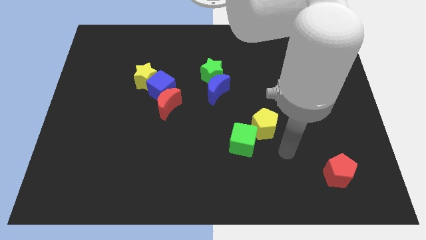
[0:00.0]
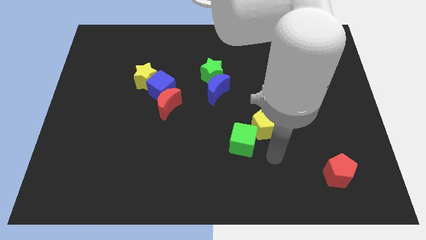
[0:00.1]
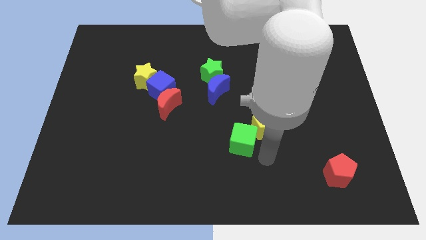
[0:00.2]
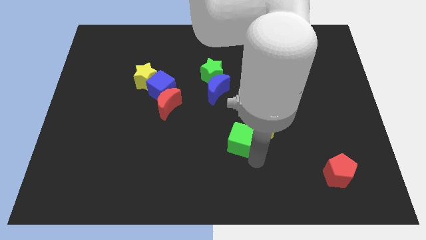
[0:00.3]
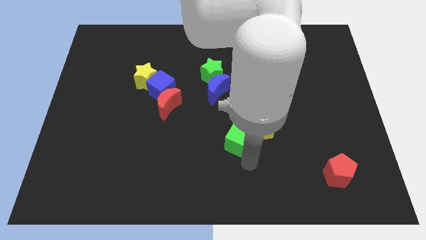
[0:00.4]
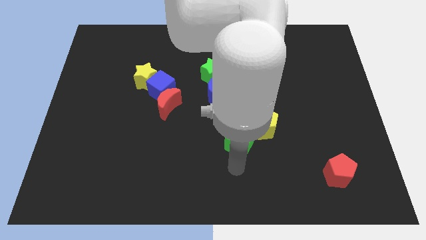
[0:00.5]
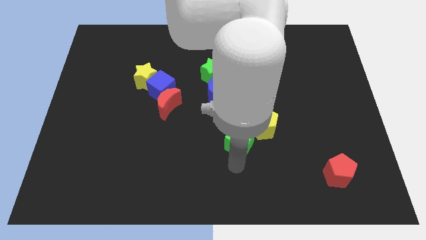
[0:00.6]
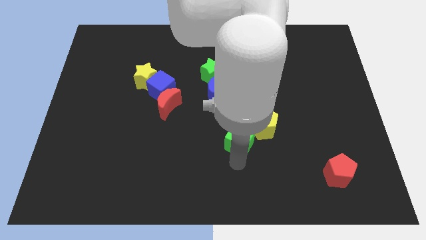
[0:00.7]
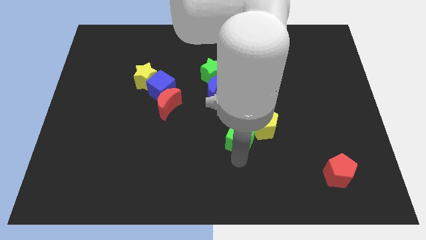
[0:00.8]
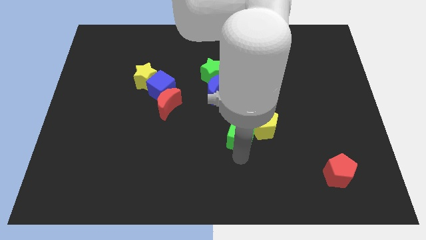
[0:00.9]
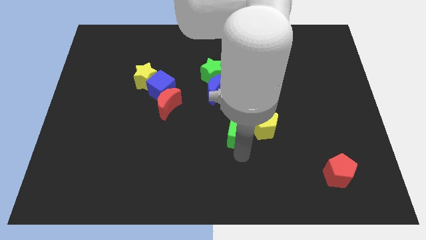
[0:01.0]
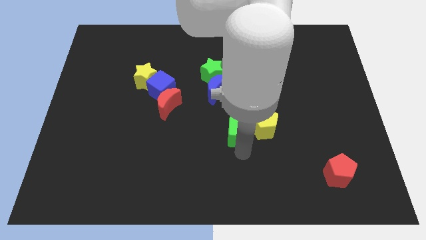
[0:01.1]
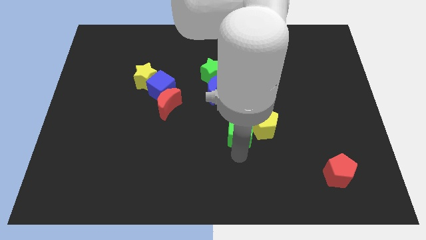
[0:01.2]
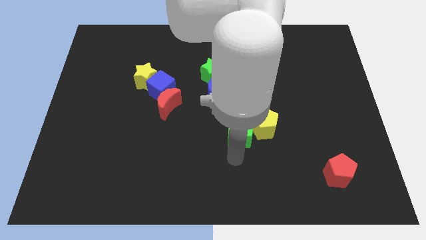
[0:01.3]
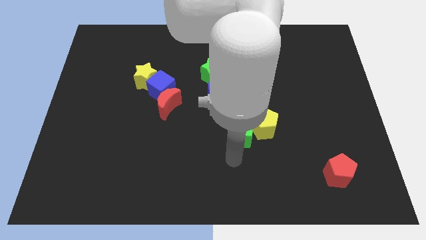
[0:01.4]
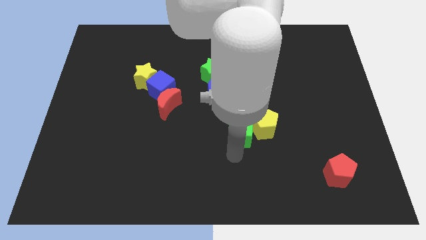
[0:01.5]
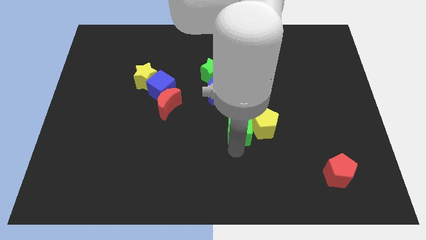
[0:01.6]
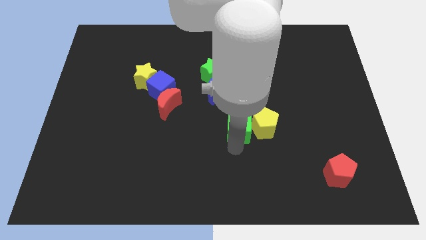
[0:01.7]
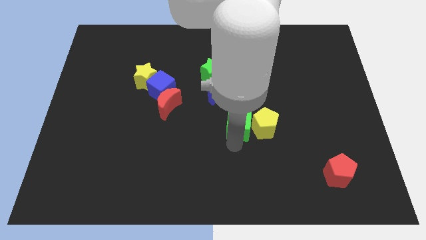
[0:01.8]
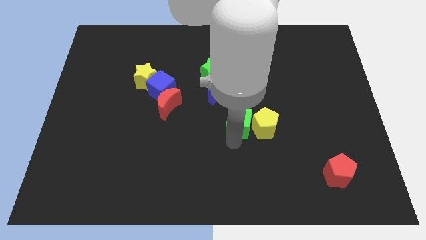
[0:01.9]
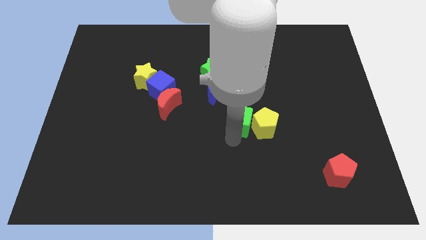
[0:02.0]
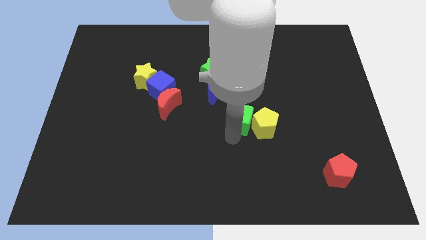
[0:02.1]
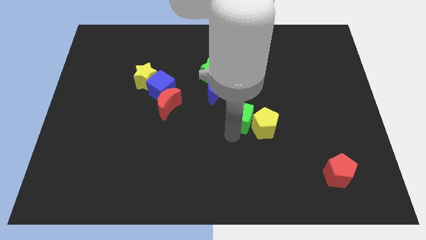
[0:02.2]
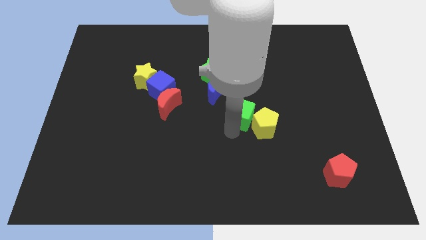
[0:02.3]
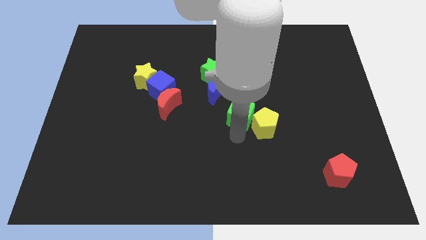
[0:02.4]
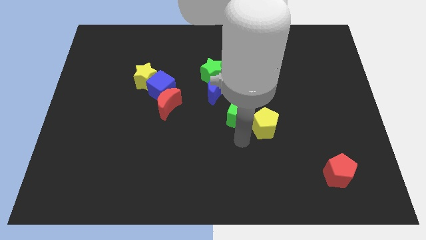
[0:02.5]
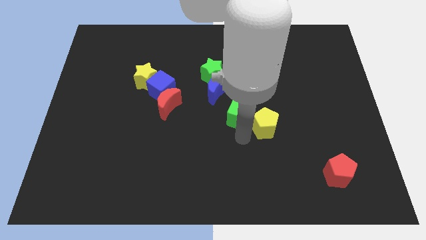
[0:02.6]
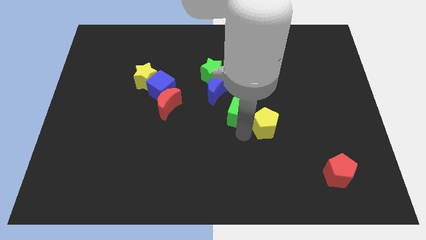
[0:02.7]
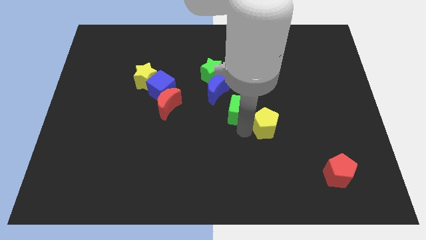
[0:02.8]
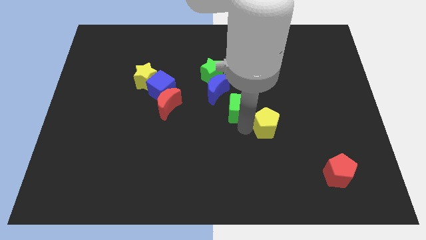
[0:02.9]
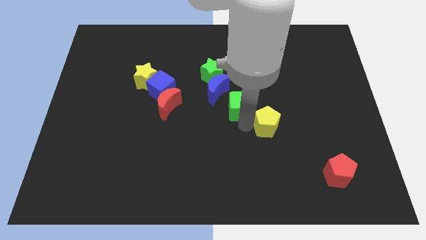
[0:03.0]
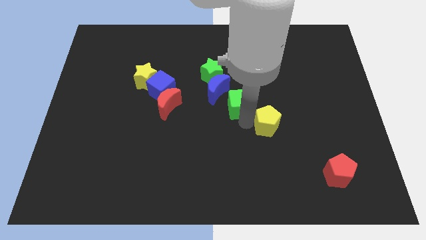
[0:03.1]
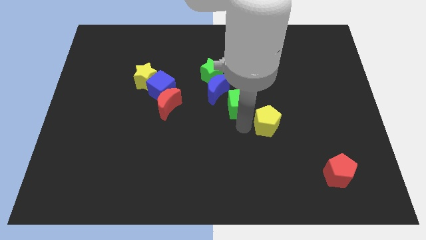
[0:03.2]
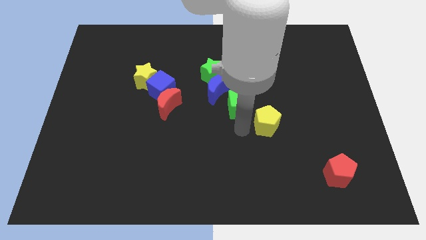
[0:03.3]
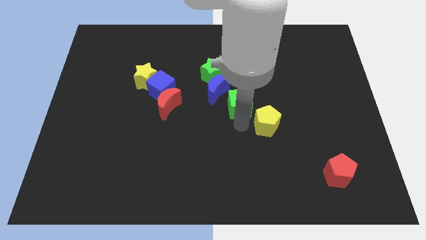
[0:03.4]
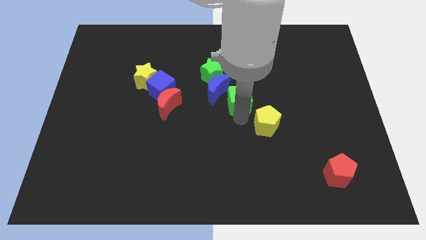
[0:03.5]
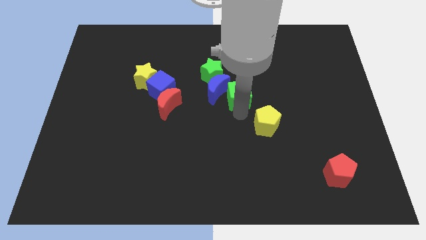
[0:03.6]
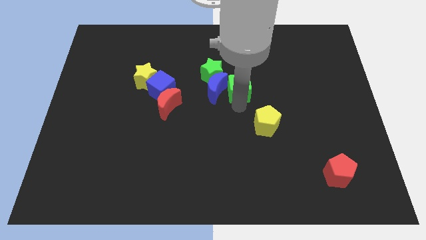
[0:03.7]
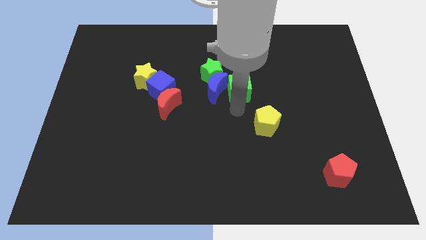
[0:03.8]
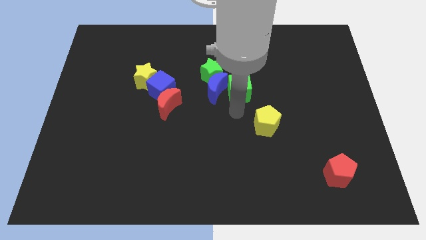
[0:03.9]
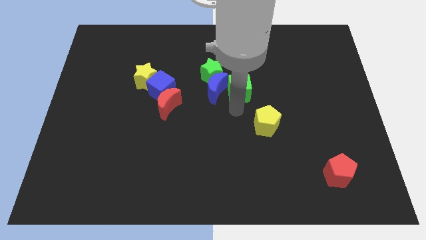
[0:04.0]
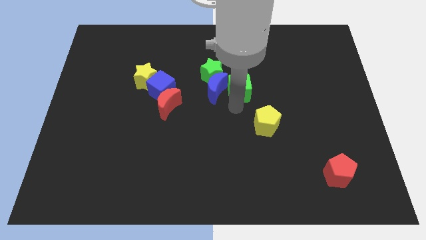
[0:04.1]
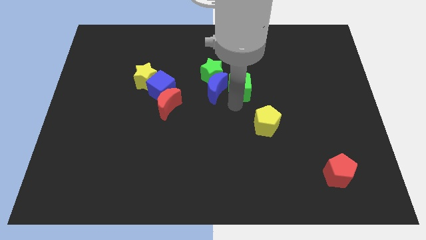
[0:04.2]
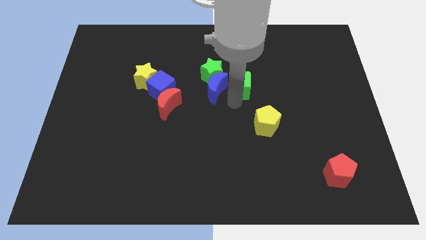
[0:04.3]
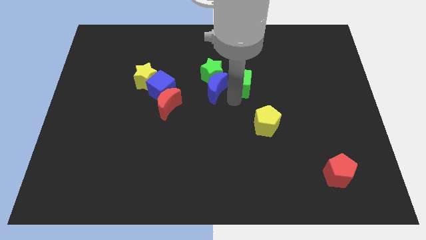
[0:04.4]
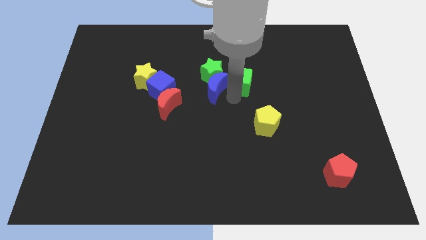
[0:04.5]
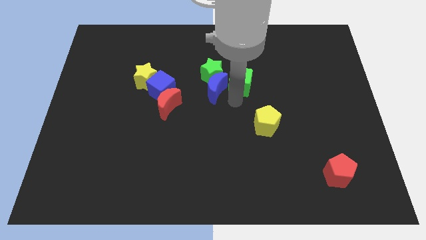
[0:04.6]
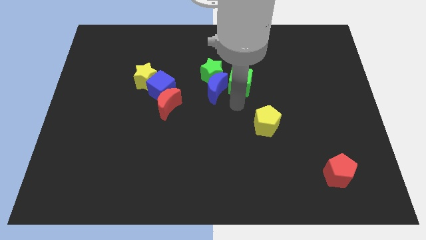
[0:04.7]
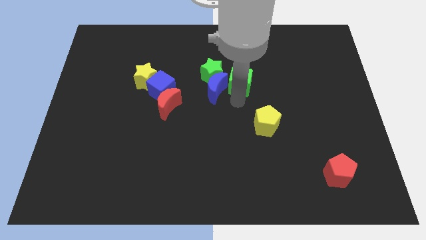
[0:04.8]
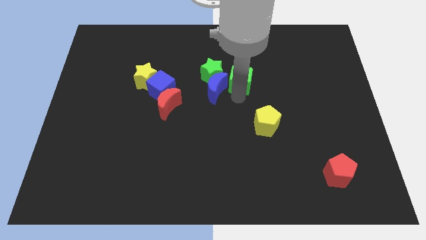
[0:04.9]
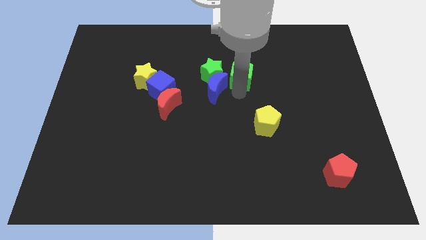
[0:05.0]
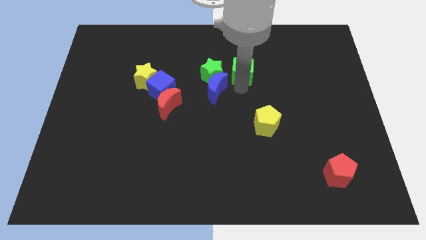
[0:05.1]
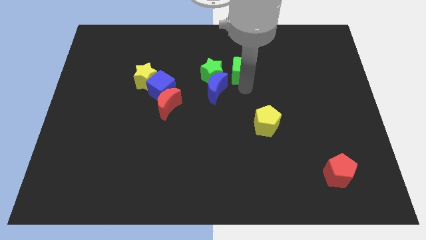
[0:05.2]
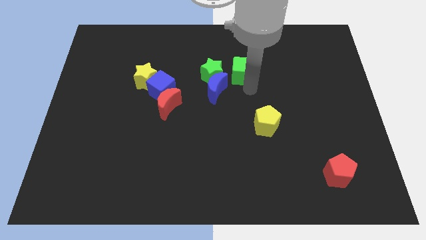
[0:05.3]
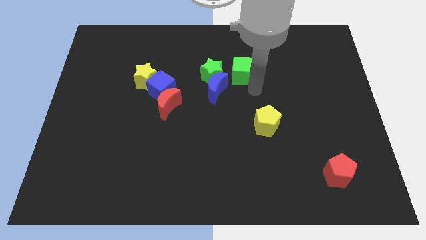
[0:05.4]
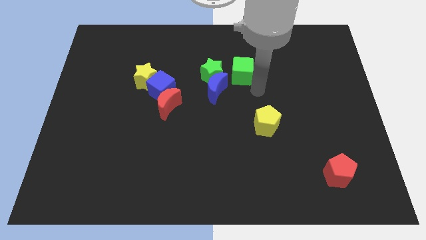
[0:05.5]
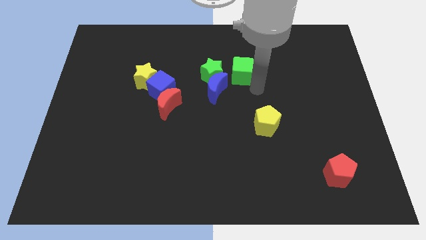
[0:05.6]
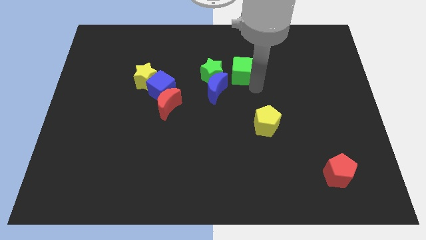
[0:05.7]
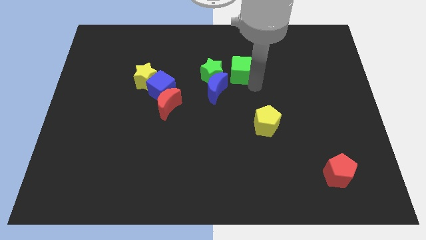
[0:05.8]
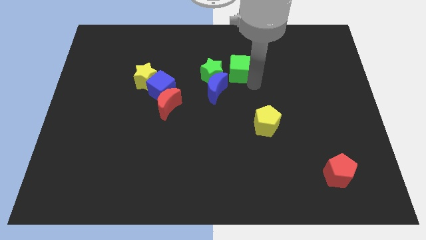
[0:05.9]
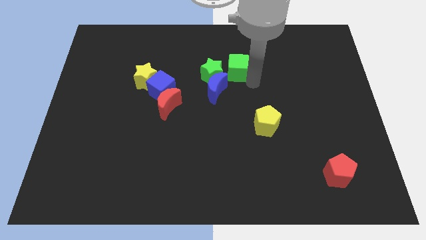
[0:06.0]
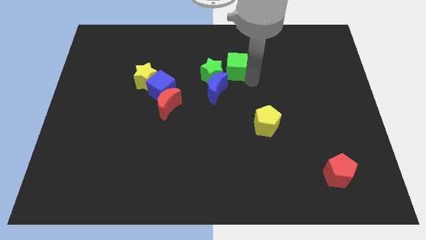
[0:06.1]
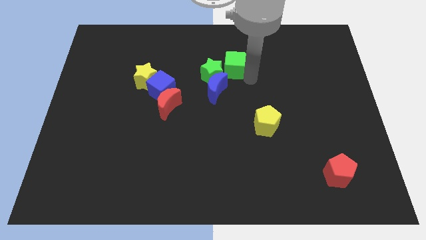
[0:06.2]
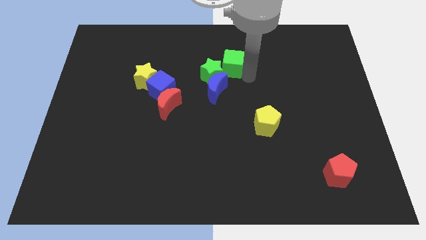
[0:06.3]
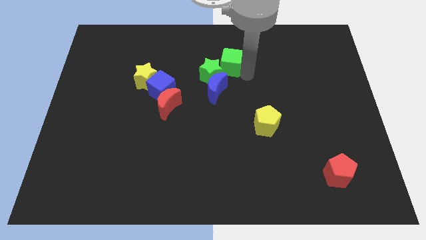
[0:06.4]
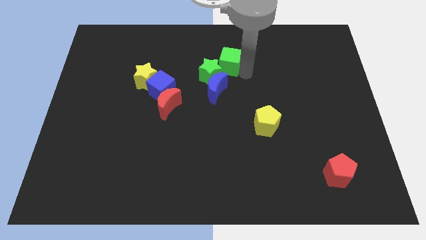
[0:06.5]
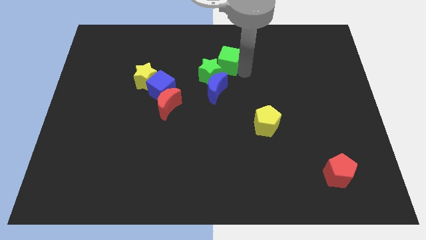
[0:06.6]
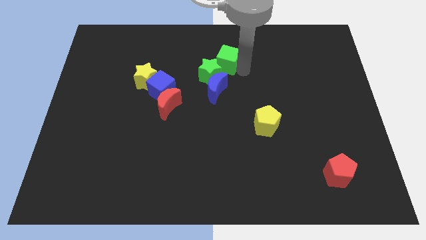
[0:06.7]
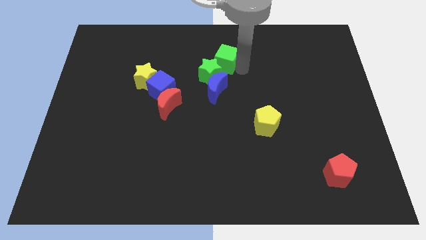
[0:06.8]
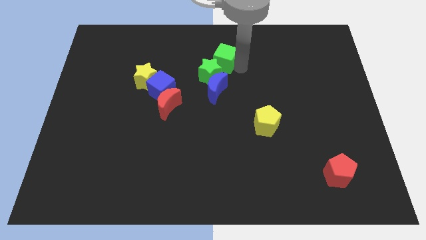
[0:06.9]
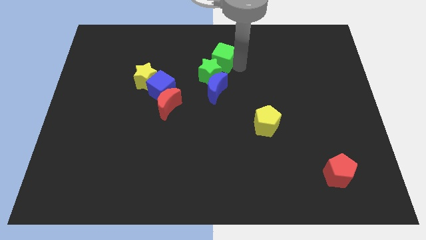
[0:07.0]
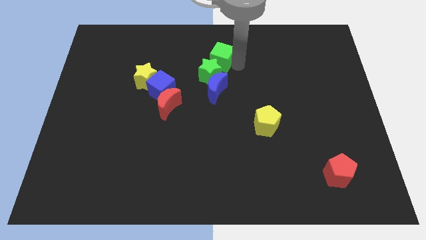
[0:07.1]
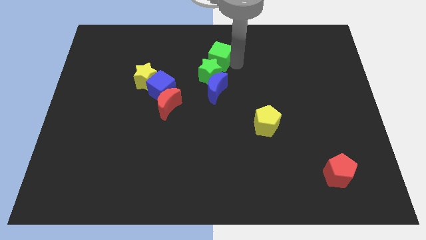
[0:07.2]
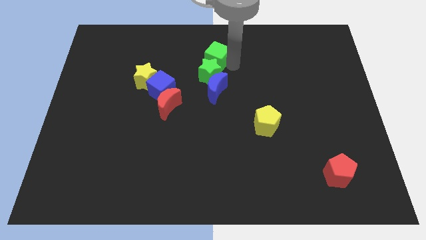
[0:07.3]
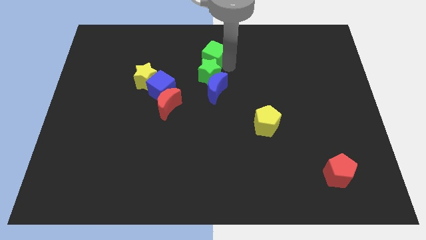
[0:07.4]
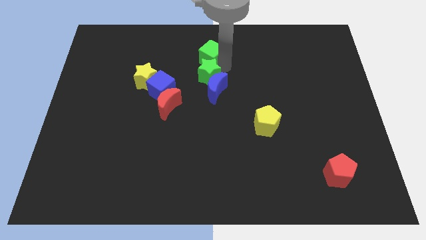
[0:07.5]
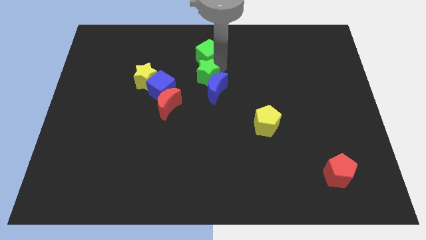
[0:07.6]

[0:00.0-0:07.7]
put the green cube to the top side
